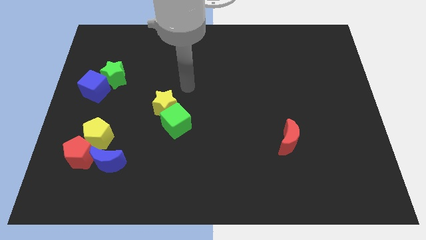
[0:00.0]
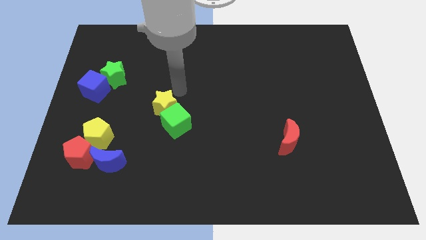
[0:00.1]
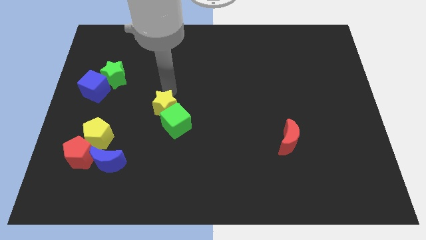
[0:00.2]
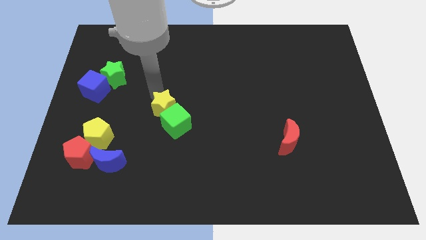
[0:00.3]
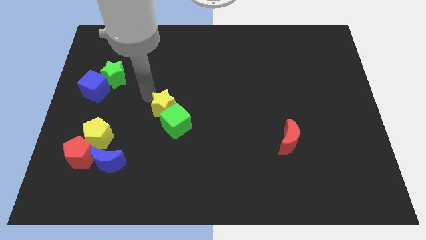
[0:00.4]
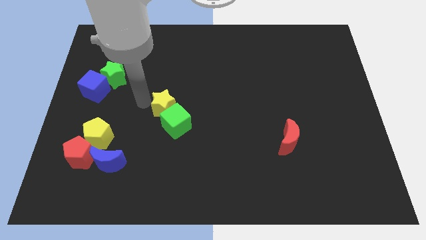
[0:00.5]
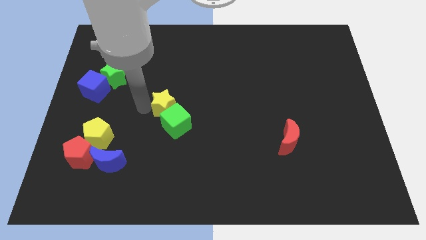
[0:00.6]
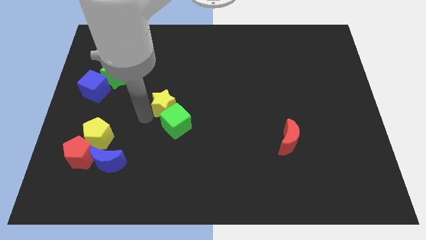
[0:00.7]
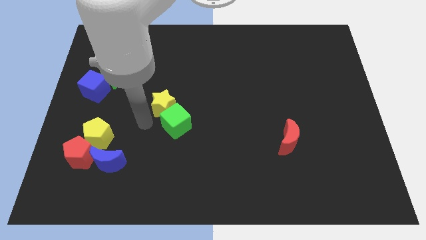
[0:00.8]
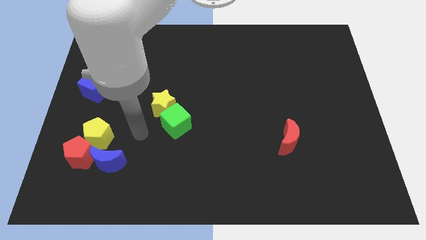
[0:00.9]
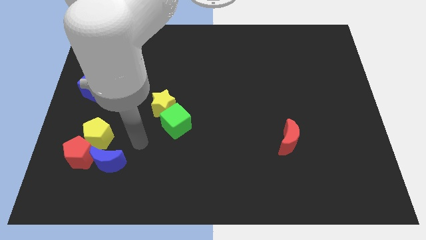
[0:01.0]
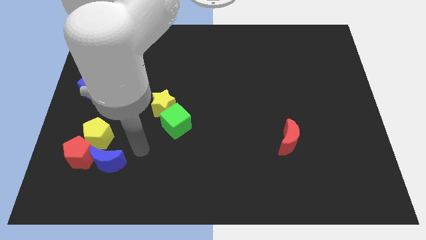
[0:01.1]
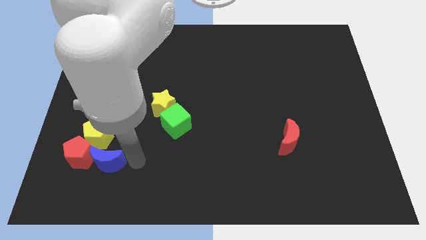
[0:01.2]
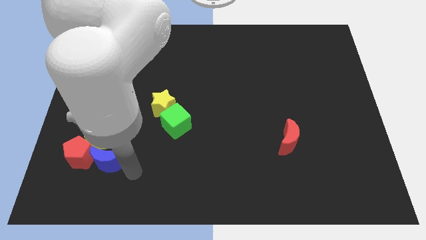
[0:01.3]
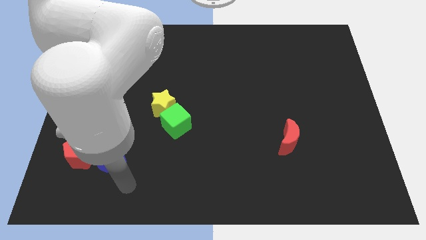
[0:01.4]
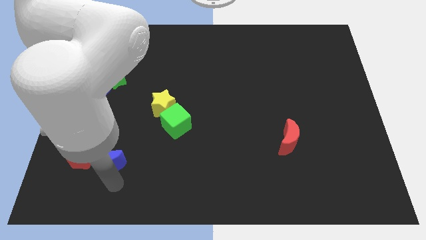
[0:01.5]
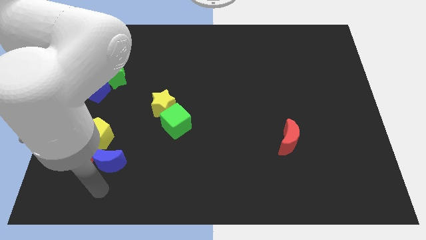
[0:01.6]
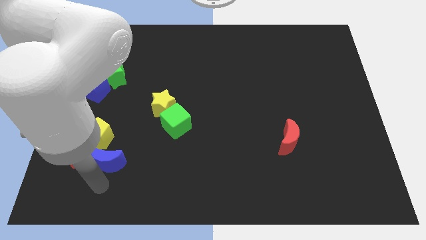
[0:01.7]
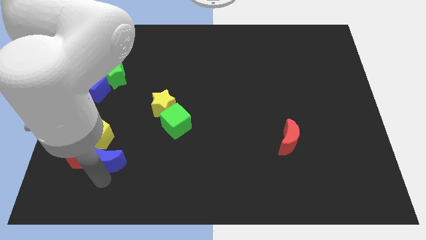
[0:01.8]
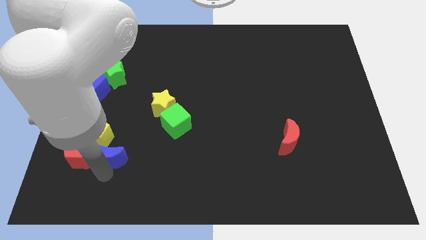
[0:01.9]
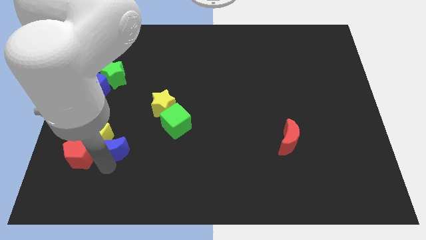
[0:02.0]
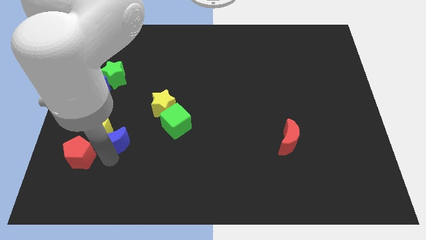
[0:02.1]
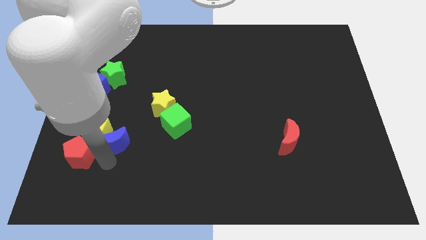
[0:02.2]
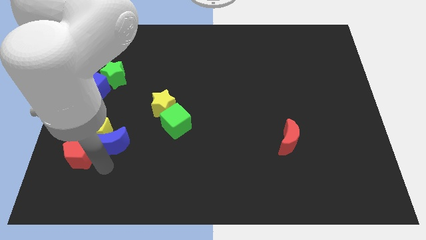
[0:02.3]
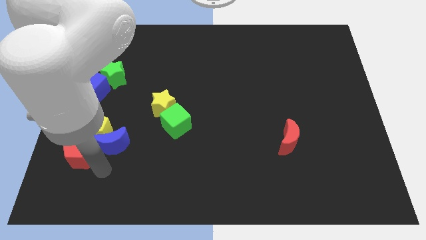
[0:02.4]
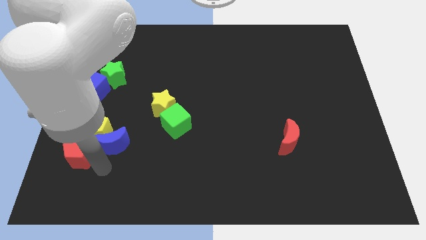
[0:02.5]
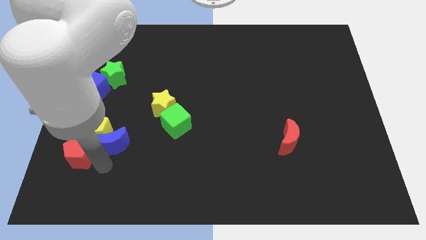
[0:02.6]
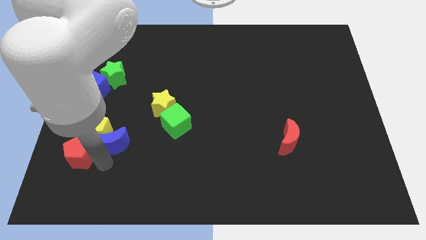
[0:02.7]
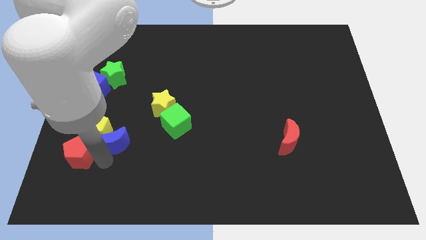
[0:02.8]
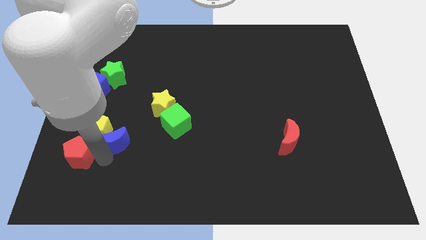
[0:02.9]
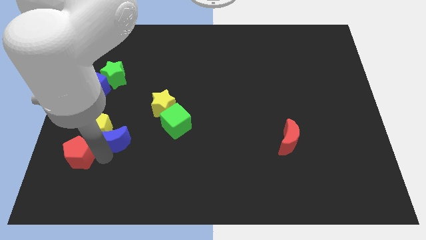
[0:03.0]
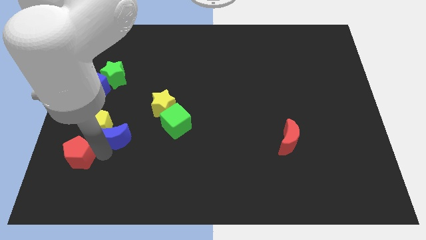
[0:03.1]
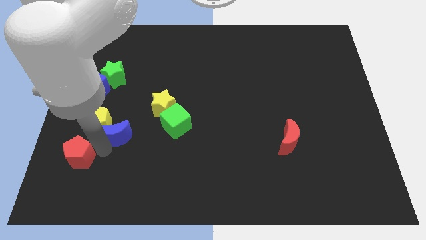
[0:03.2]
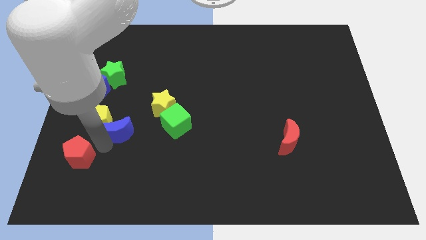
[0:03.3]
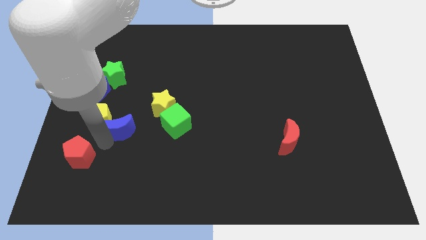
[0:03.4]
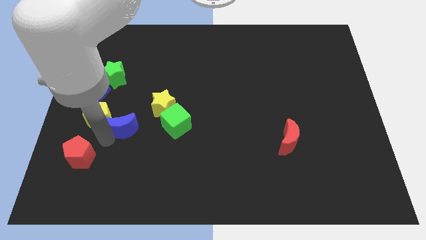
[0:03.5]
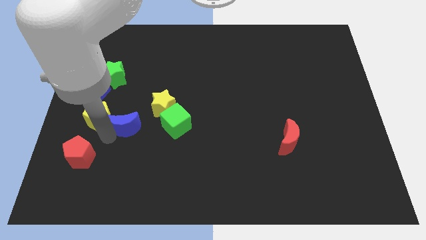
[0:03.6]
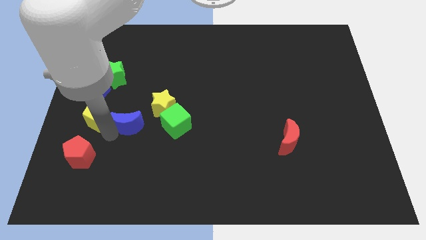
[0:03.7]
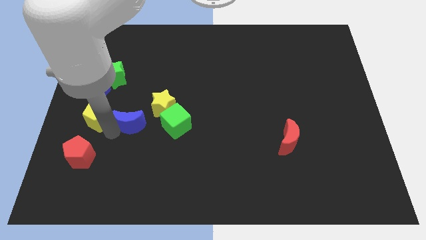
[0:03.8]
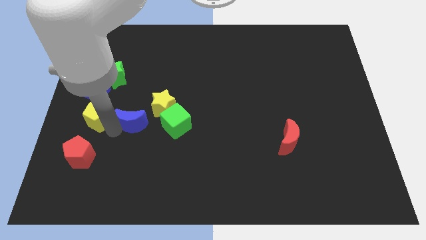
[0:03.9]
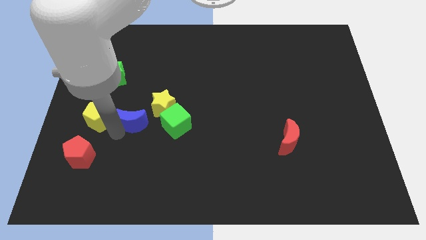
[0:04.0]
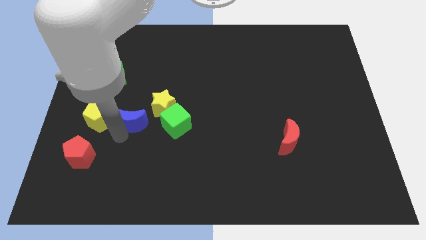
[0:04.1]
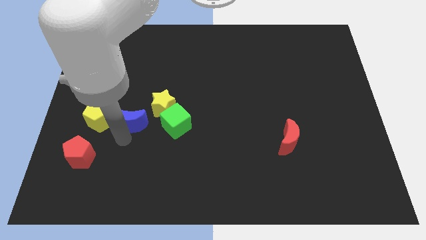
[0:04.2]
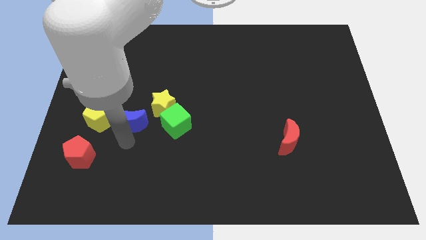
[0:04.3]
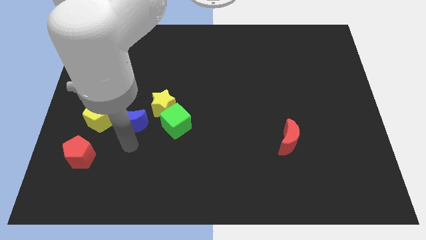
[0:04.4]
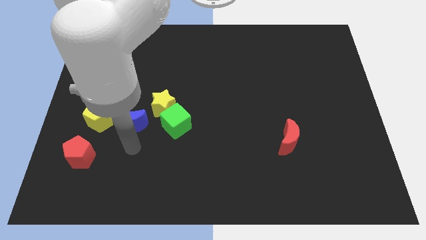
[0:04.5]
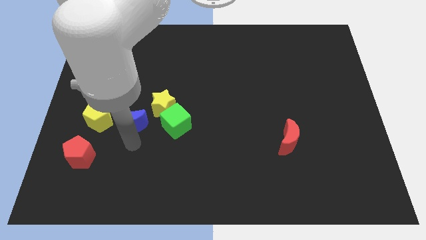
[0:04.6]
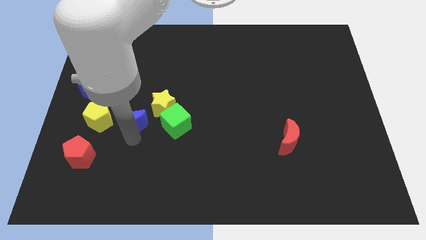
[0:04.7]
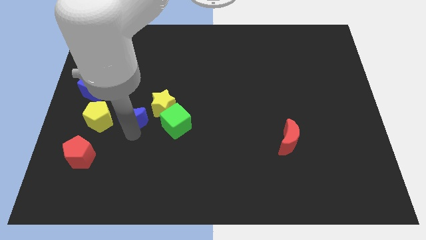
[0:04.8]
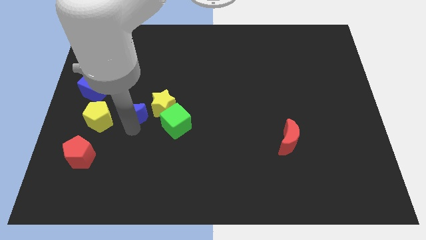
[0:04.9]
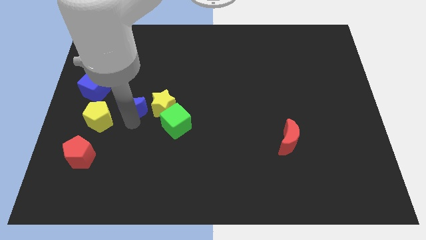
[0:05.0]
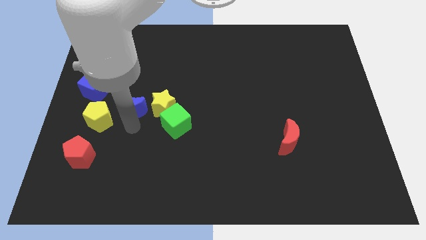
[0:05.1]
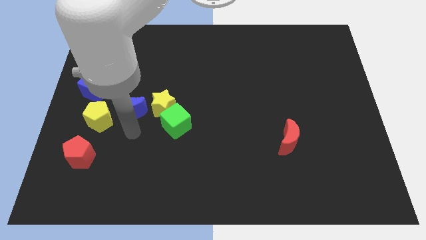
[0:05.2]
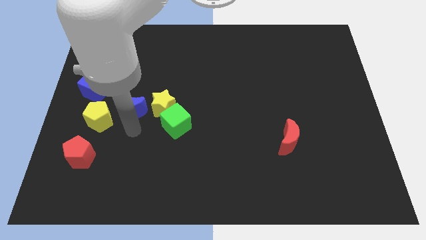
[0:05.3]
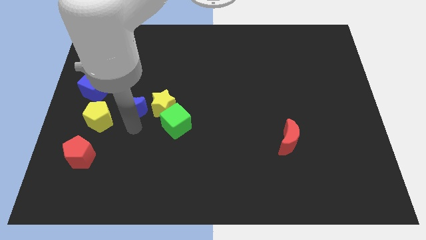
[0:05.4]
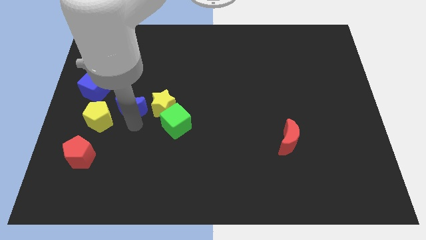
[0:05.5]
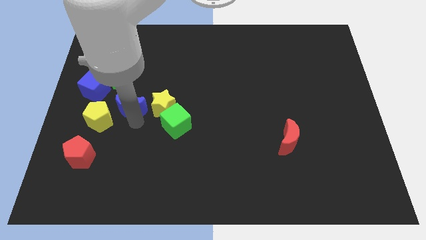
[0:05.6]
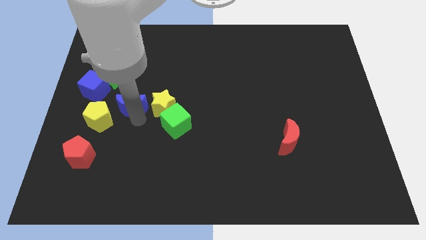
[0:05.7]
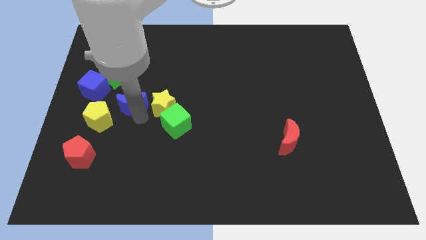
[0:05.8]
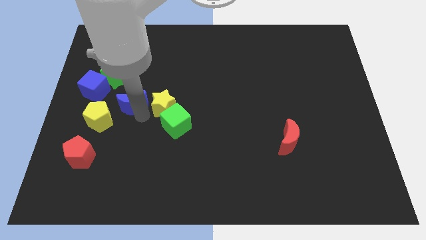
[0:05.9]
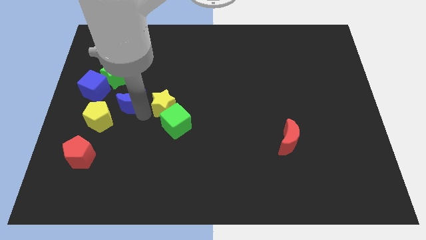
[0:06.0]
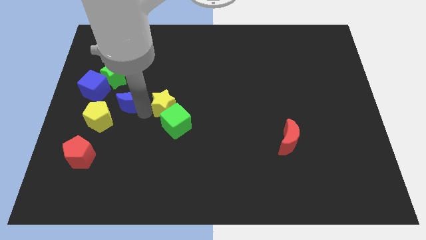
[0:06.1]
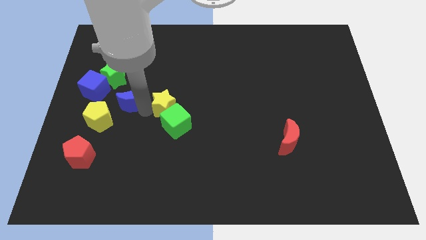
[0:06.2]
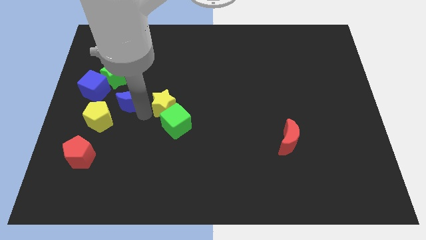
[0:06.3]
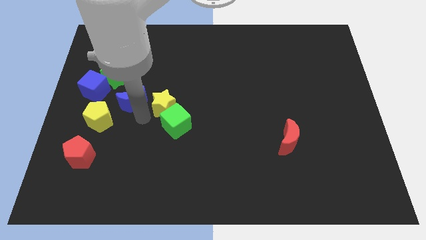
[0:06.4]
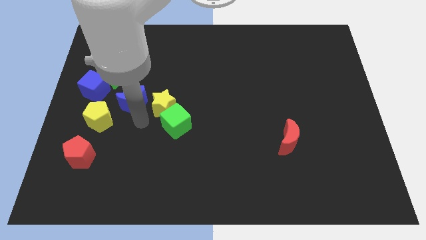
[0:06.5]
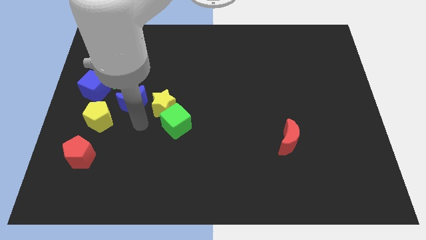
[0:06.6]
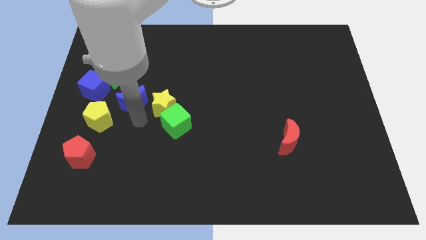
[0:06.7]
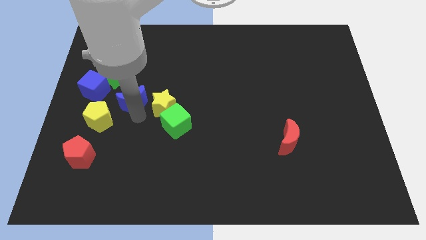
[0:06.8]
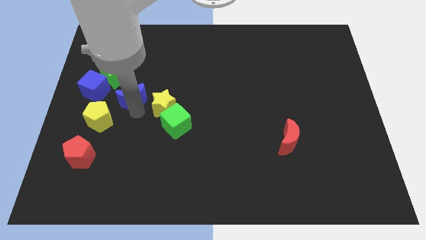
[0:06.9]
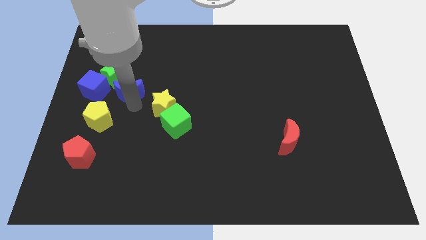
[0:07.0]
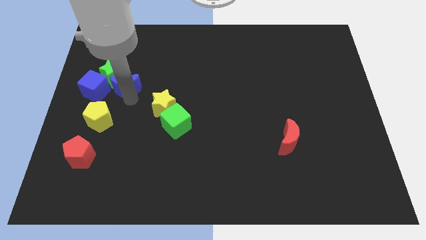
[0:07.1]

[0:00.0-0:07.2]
move the blue moon upwards

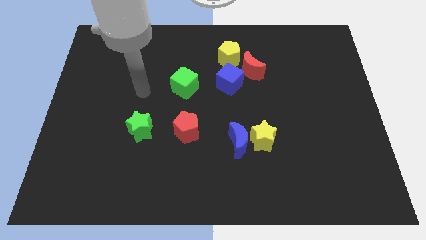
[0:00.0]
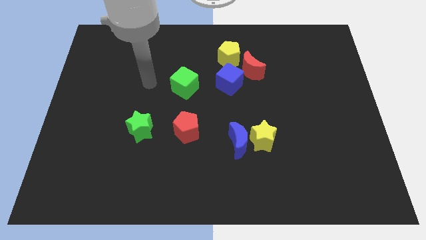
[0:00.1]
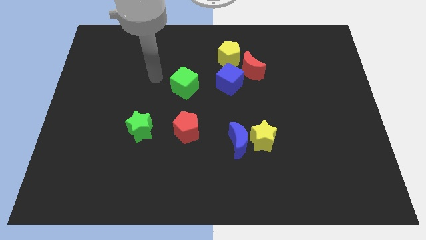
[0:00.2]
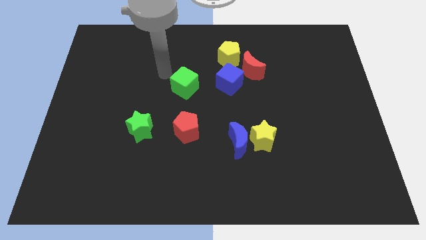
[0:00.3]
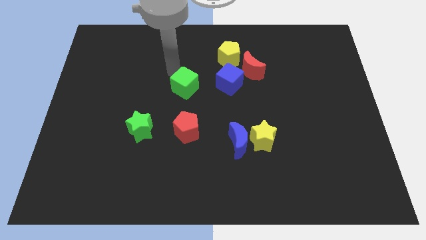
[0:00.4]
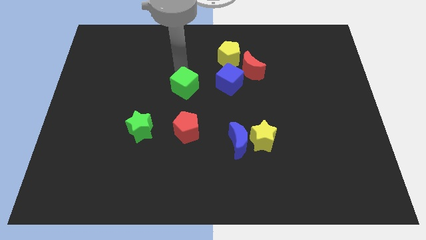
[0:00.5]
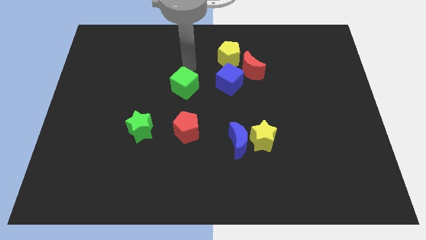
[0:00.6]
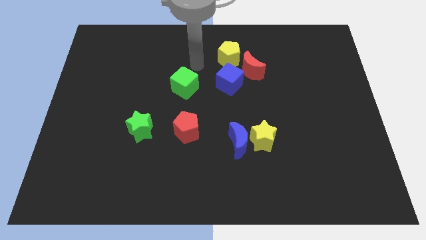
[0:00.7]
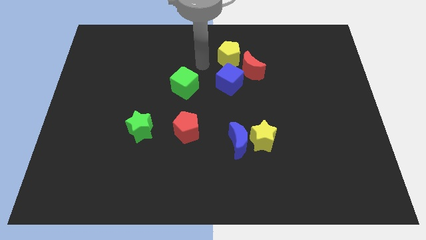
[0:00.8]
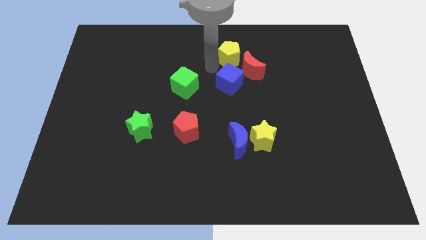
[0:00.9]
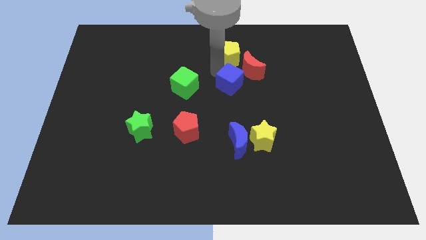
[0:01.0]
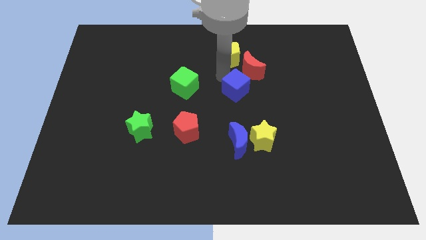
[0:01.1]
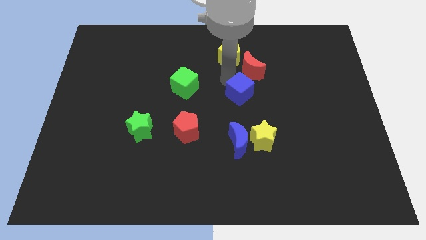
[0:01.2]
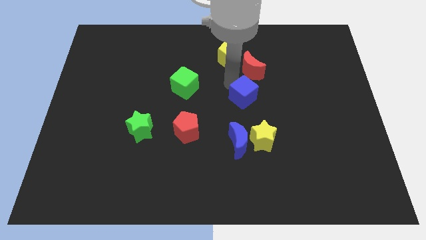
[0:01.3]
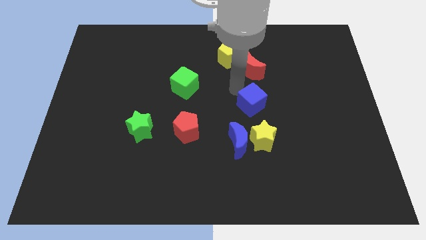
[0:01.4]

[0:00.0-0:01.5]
move the blue cube a bit diagonally downwards and to the right
